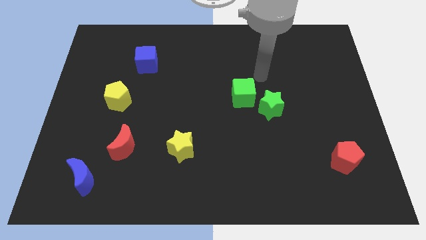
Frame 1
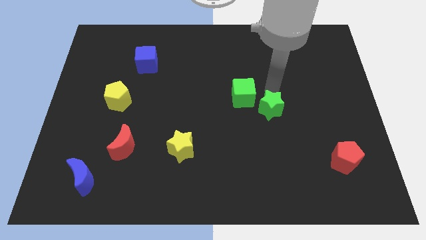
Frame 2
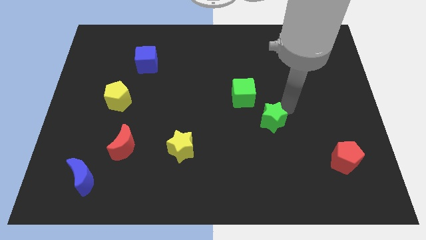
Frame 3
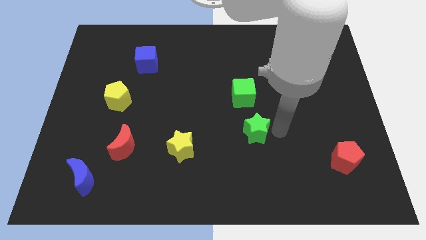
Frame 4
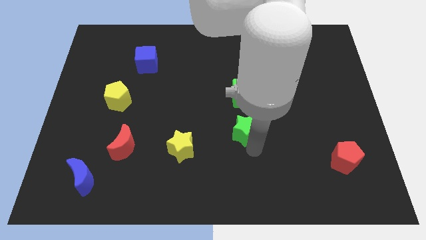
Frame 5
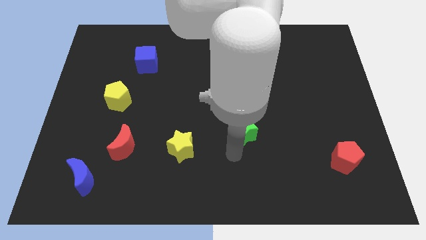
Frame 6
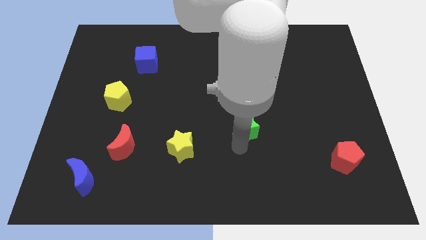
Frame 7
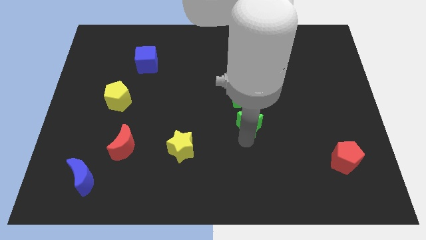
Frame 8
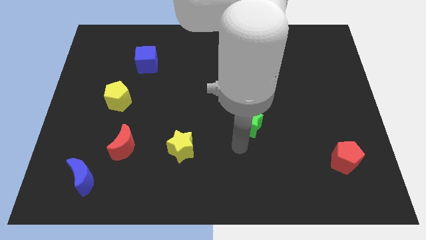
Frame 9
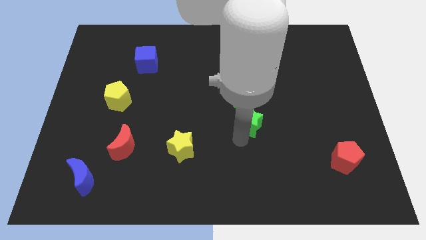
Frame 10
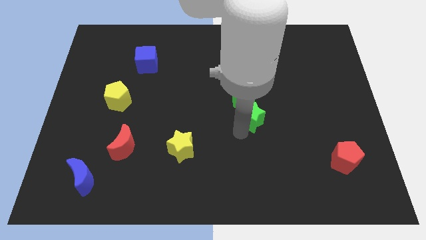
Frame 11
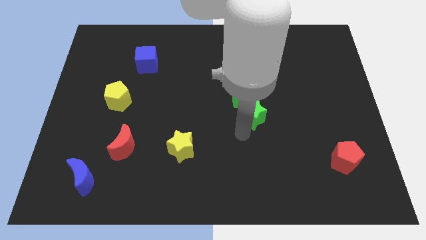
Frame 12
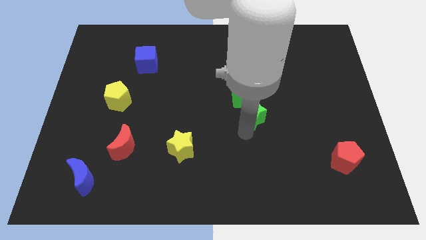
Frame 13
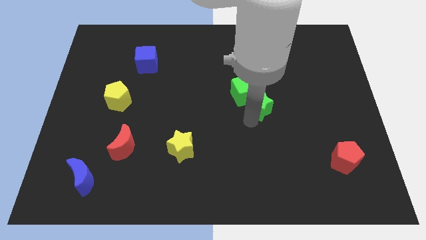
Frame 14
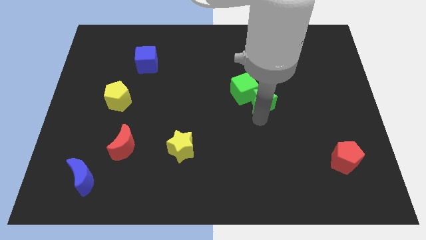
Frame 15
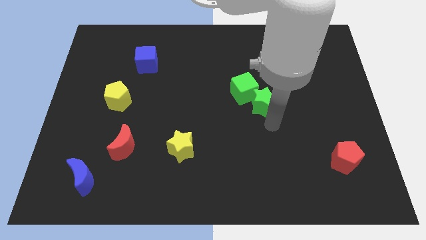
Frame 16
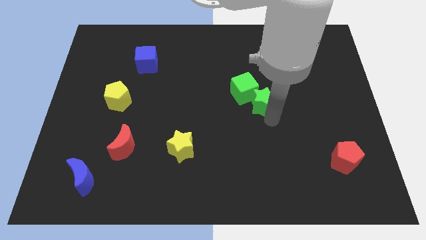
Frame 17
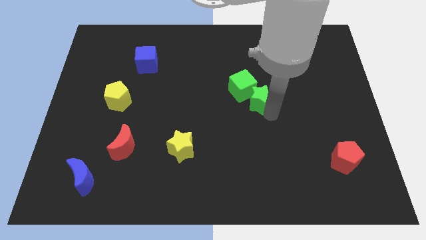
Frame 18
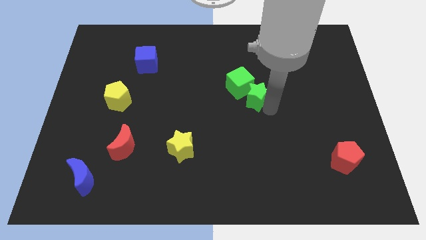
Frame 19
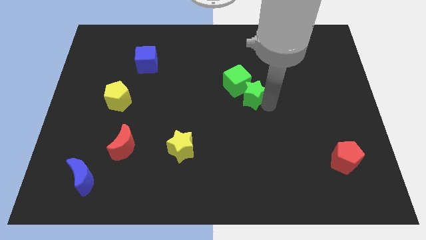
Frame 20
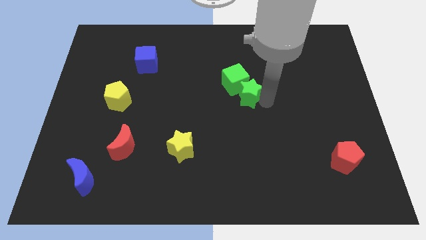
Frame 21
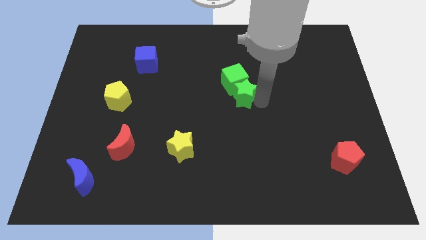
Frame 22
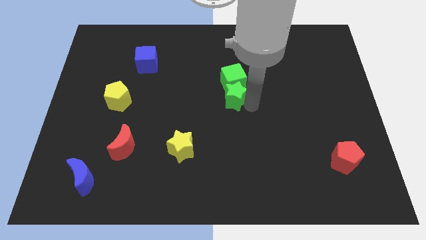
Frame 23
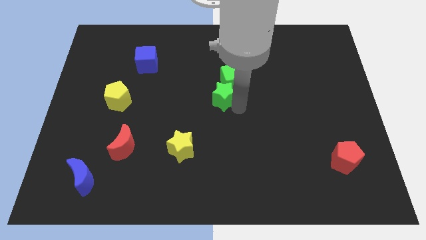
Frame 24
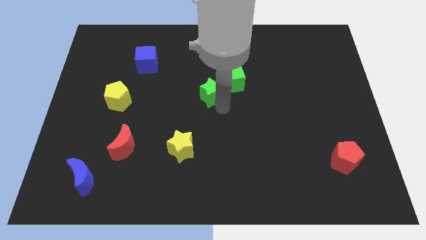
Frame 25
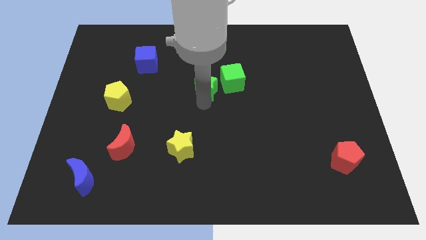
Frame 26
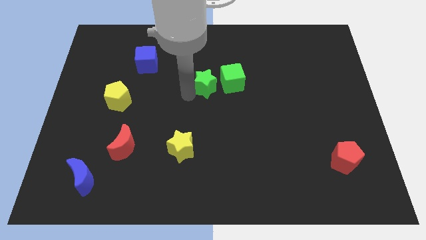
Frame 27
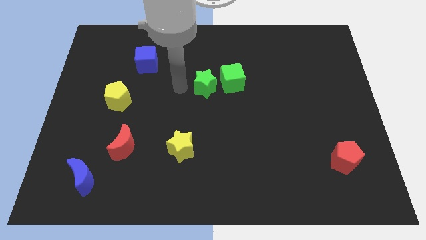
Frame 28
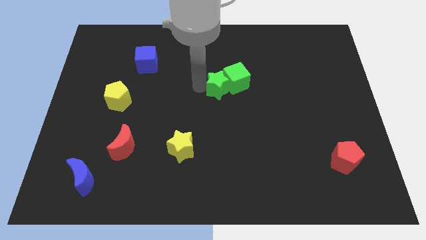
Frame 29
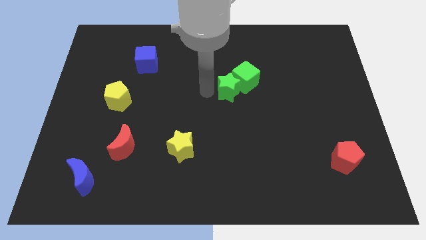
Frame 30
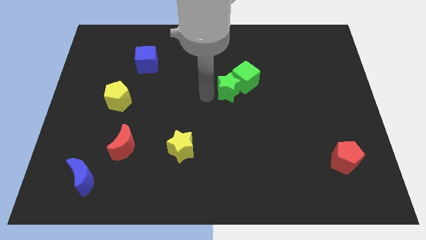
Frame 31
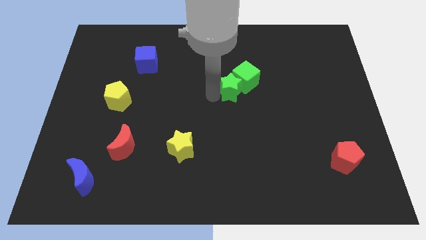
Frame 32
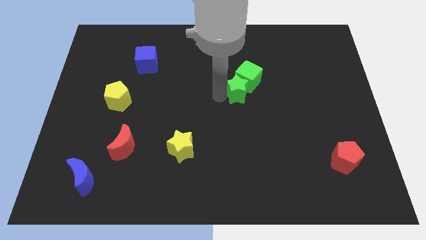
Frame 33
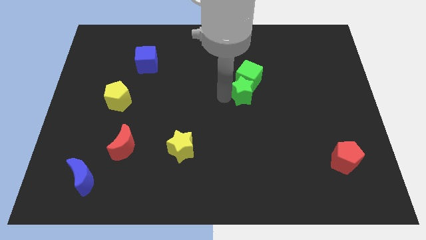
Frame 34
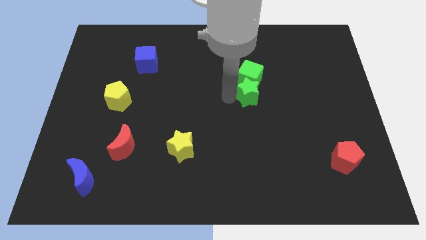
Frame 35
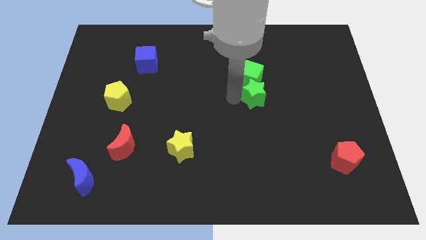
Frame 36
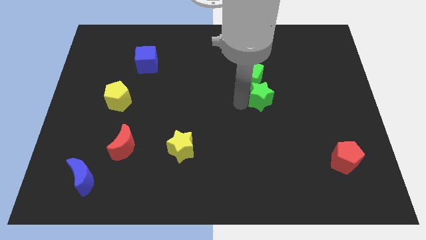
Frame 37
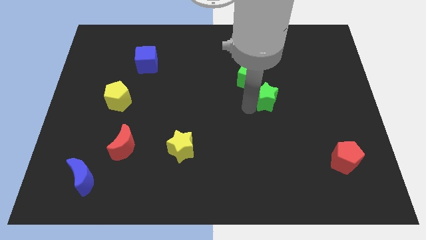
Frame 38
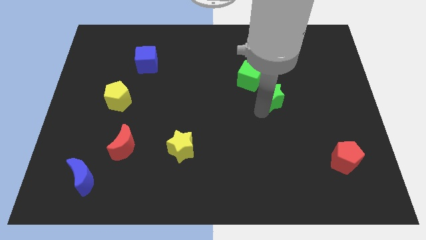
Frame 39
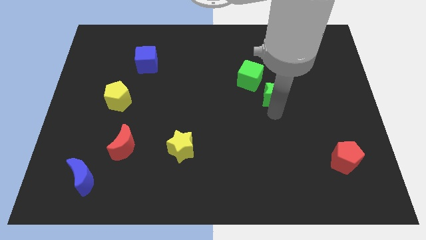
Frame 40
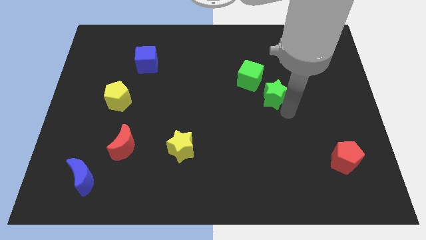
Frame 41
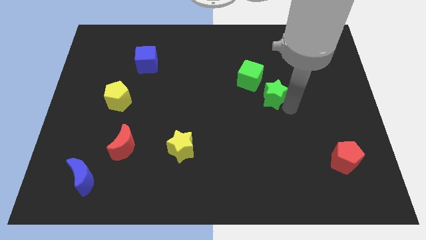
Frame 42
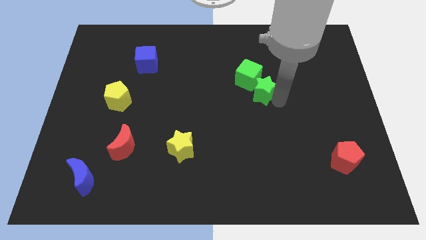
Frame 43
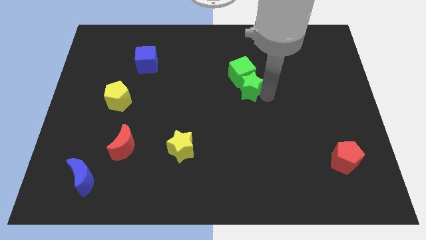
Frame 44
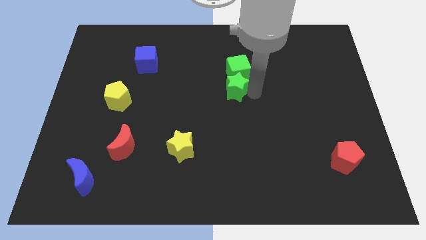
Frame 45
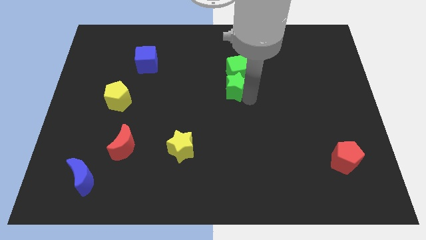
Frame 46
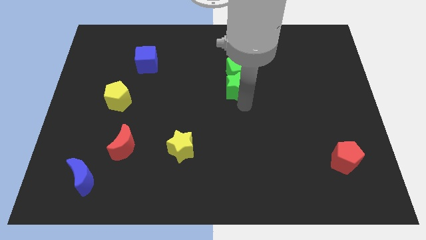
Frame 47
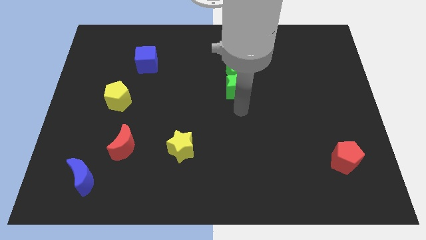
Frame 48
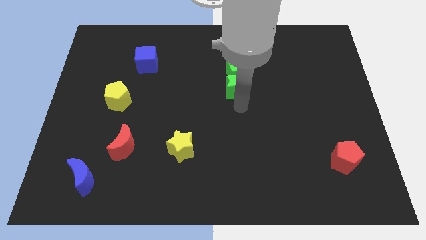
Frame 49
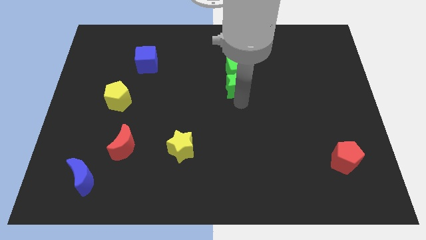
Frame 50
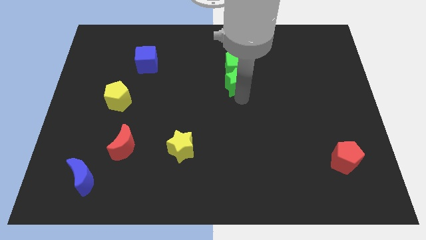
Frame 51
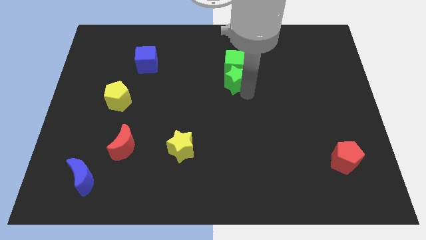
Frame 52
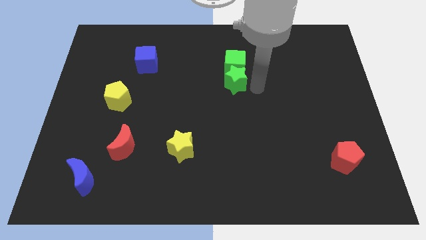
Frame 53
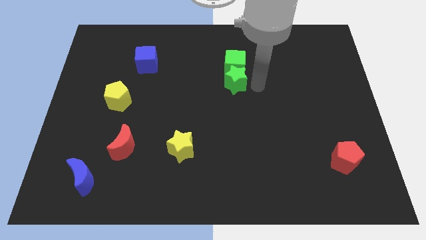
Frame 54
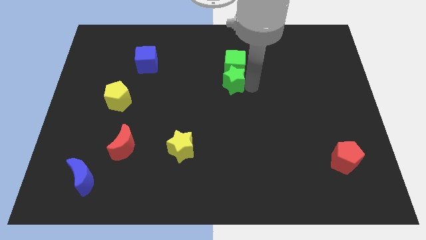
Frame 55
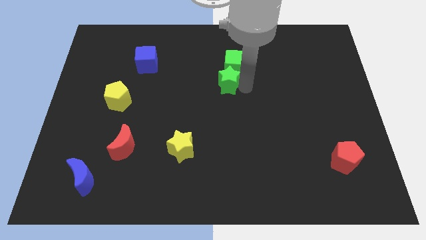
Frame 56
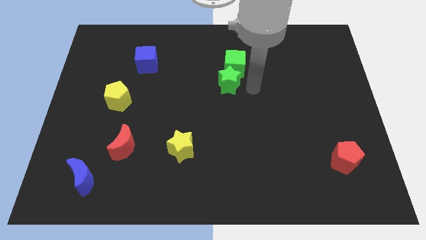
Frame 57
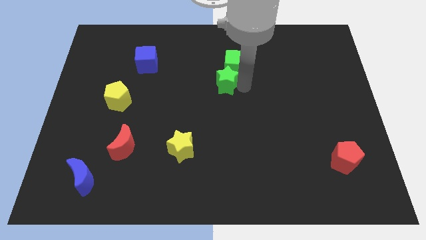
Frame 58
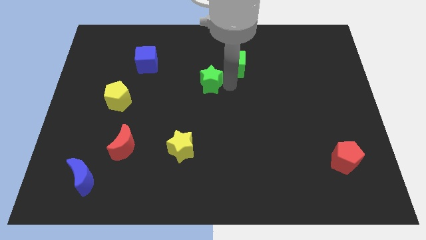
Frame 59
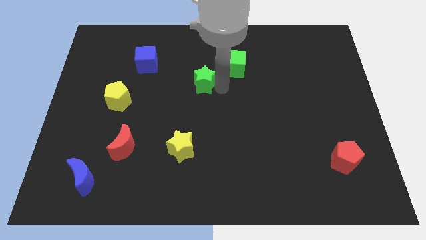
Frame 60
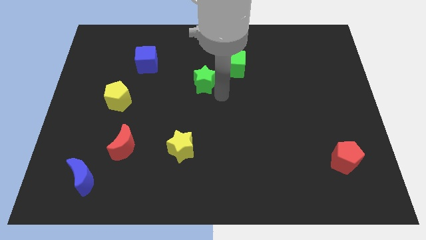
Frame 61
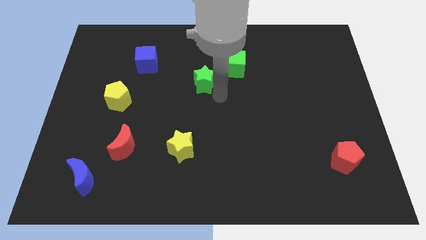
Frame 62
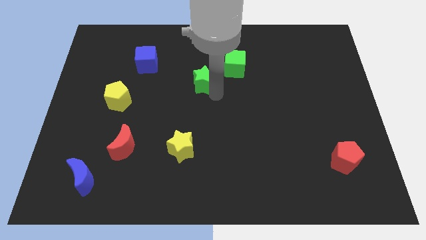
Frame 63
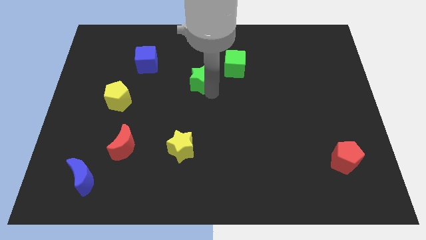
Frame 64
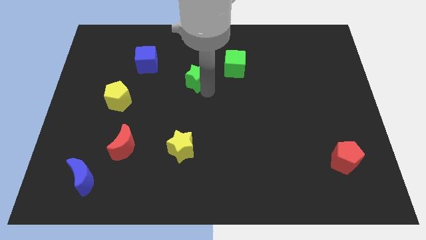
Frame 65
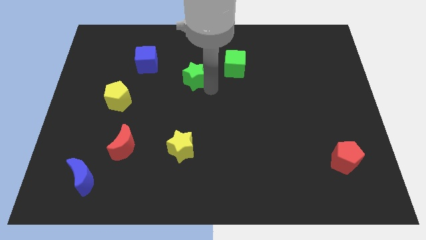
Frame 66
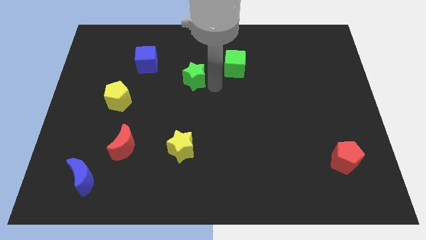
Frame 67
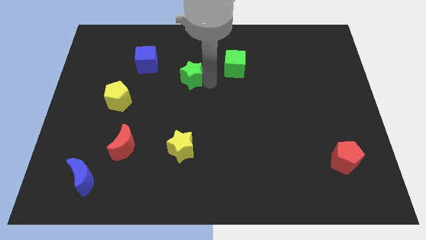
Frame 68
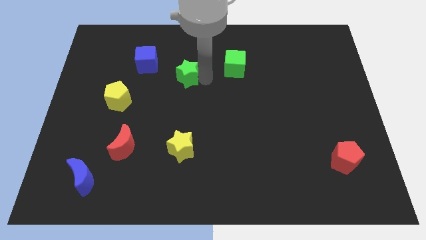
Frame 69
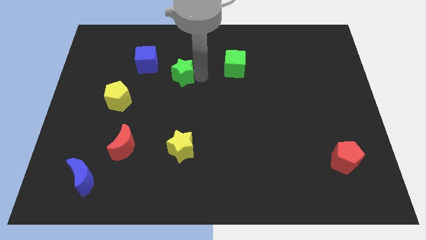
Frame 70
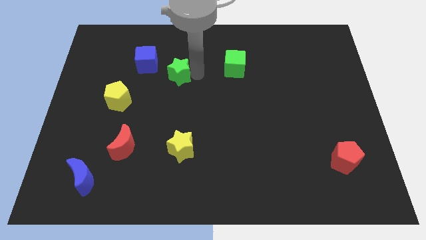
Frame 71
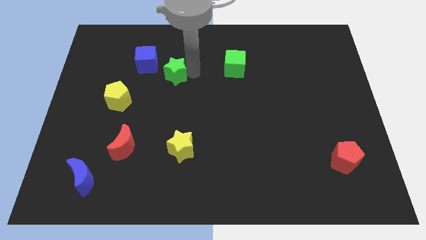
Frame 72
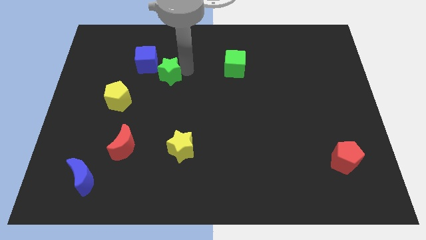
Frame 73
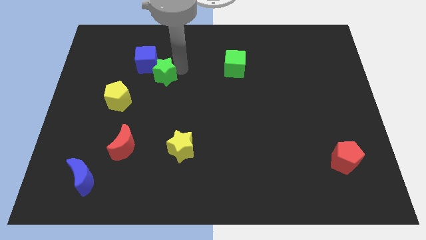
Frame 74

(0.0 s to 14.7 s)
put the green star next to the blue cube
